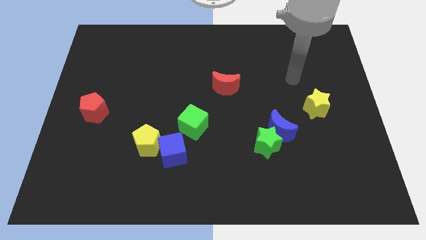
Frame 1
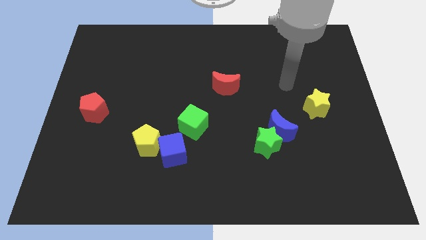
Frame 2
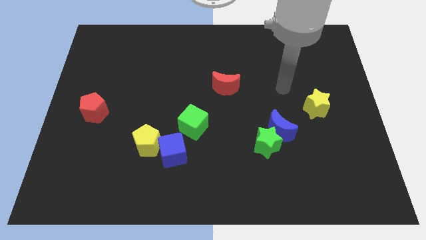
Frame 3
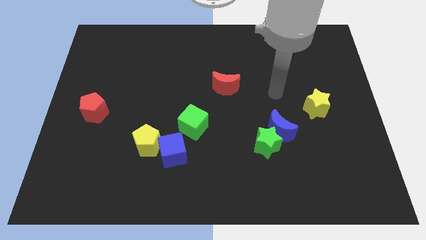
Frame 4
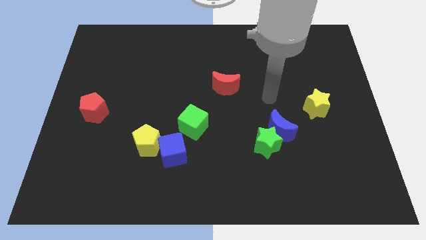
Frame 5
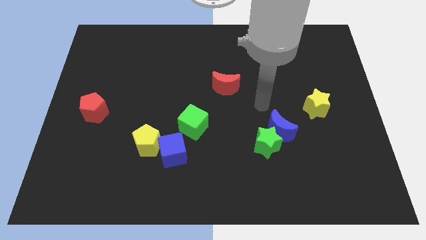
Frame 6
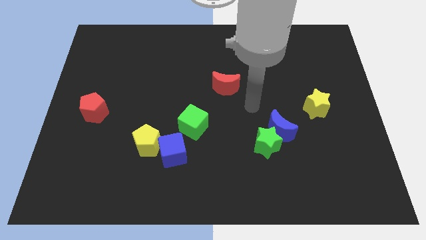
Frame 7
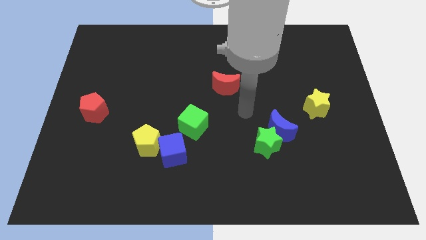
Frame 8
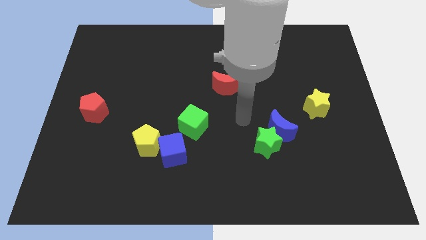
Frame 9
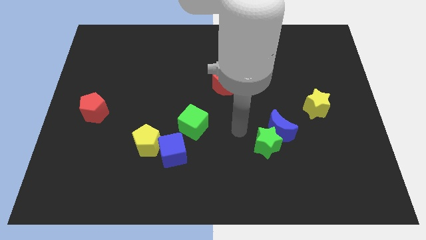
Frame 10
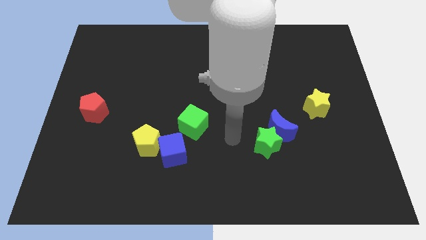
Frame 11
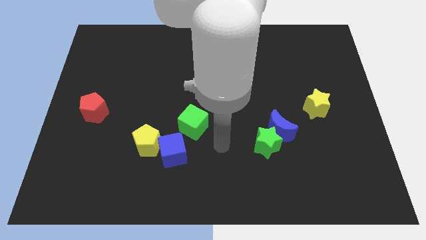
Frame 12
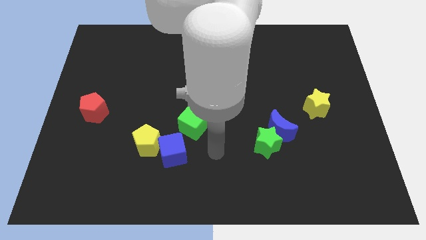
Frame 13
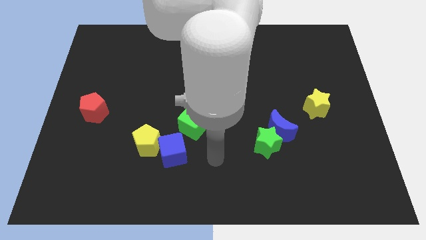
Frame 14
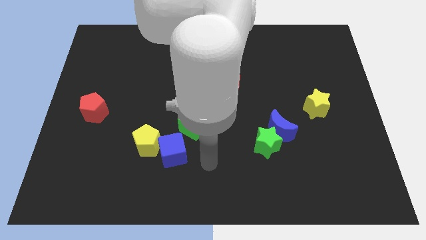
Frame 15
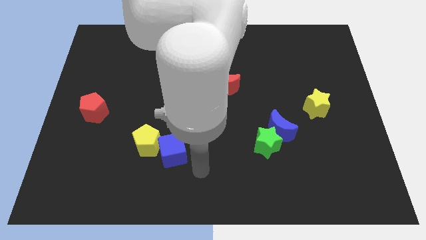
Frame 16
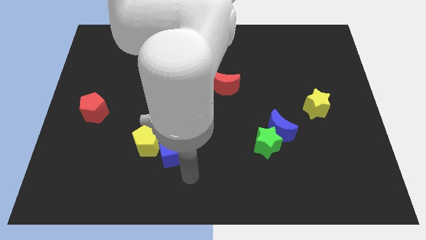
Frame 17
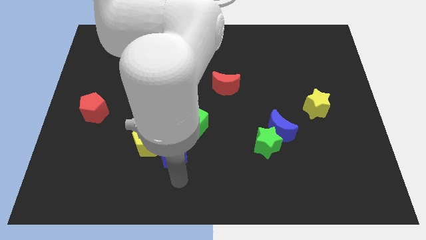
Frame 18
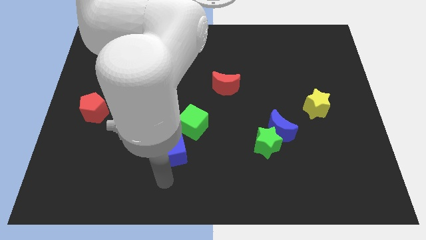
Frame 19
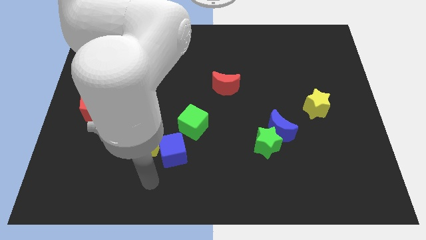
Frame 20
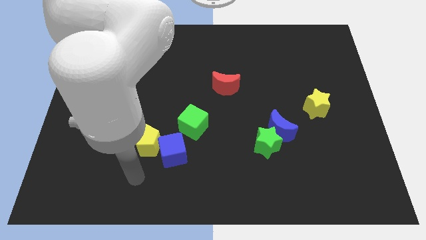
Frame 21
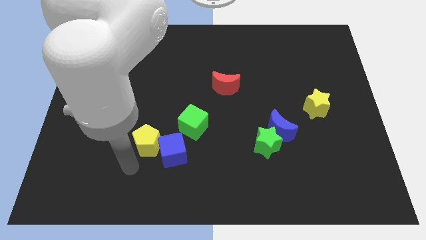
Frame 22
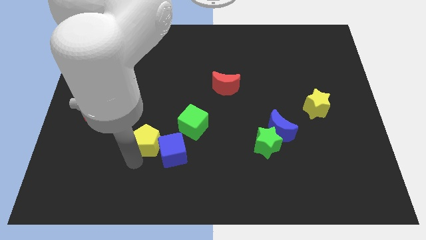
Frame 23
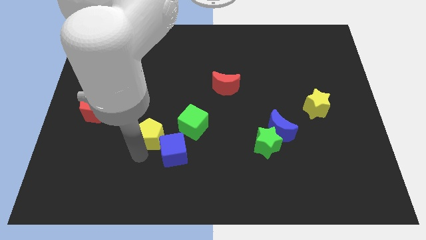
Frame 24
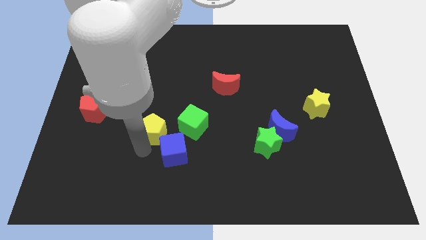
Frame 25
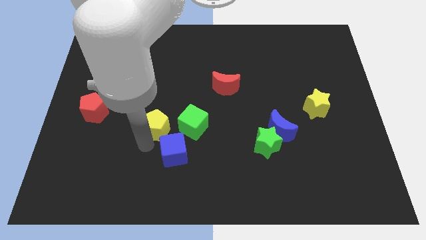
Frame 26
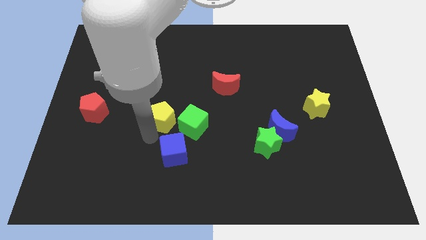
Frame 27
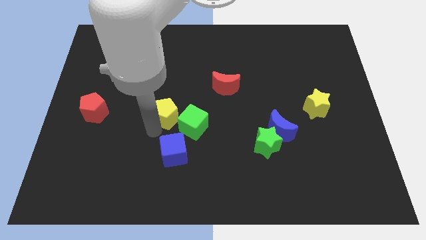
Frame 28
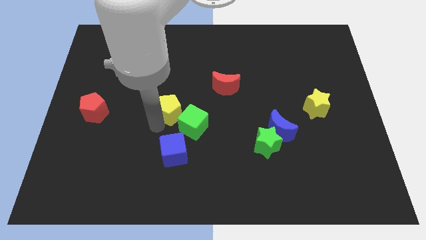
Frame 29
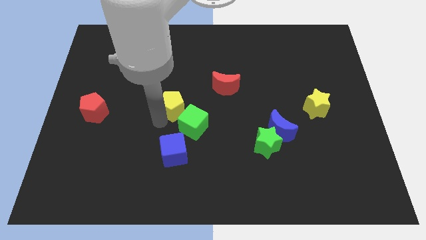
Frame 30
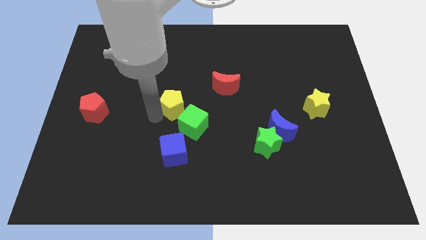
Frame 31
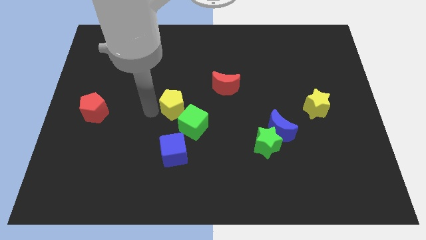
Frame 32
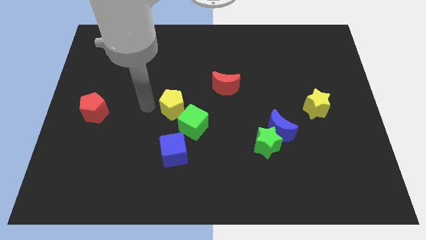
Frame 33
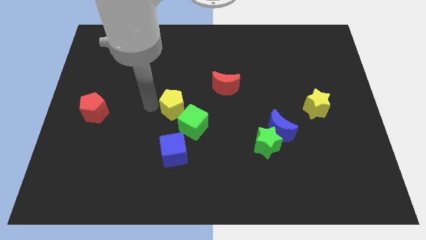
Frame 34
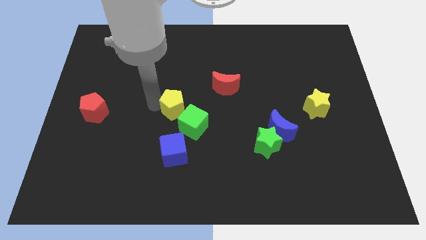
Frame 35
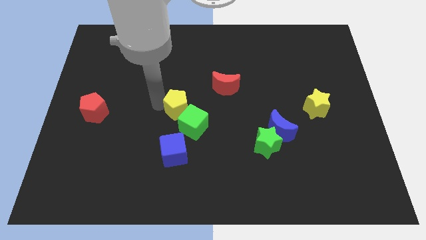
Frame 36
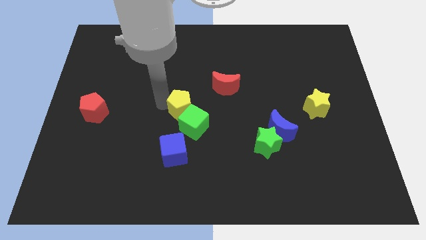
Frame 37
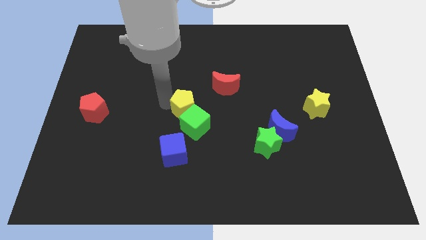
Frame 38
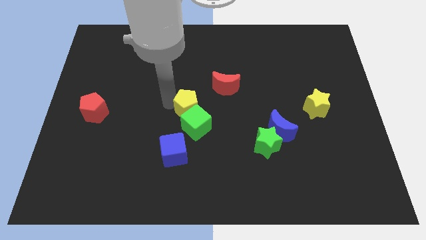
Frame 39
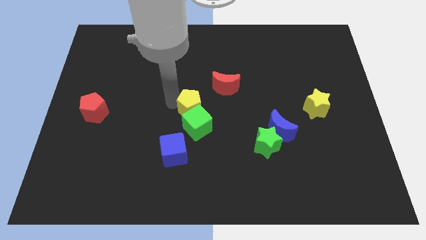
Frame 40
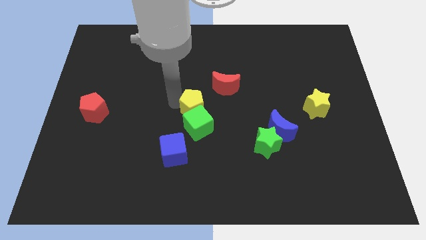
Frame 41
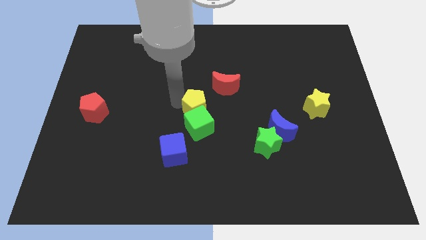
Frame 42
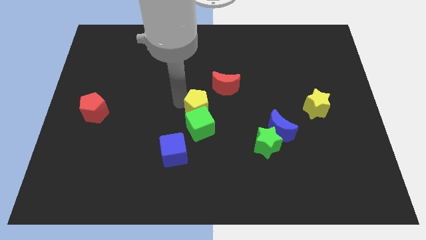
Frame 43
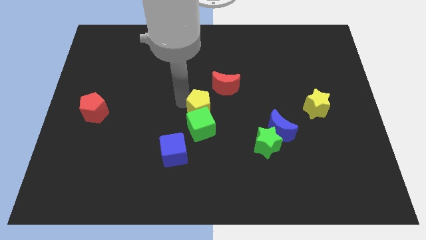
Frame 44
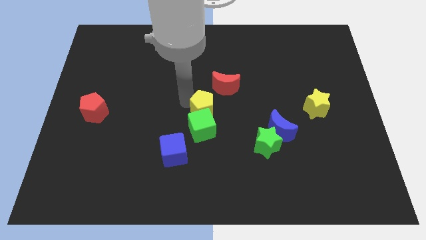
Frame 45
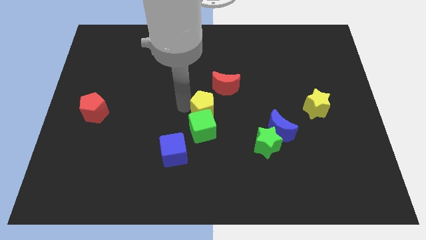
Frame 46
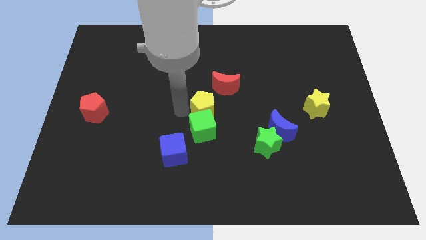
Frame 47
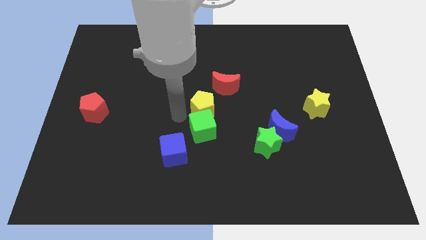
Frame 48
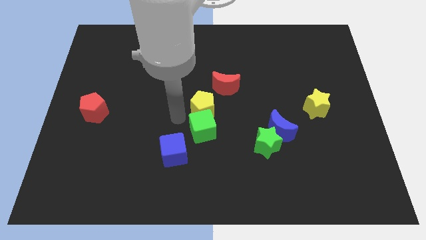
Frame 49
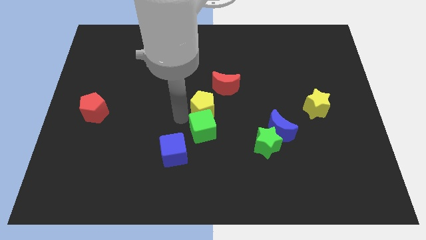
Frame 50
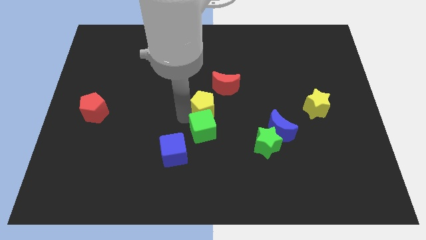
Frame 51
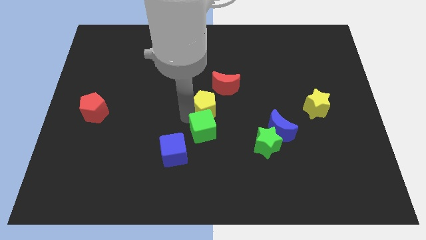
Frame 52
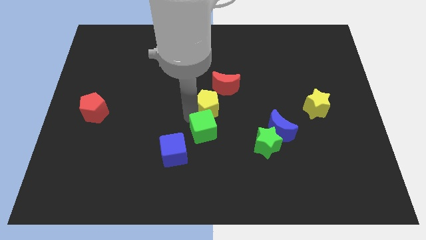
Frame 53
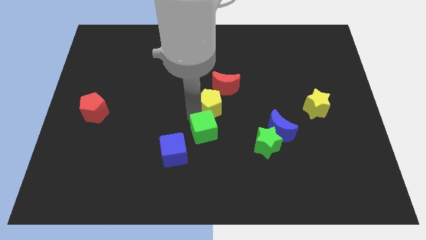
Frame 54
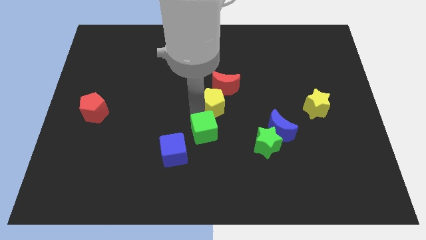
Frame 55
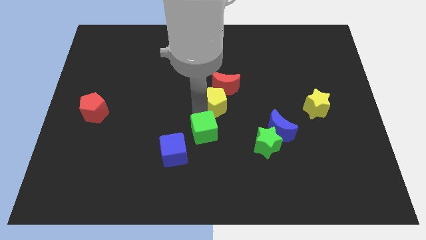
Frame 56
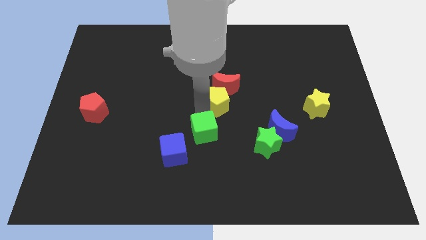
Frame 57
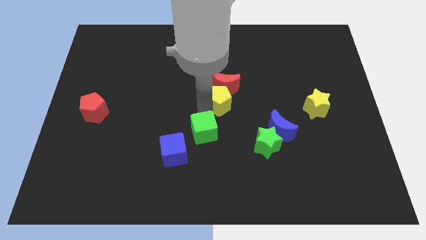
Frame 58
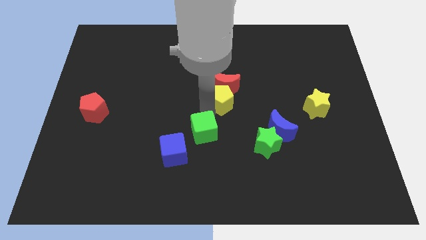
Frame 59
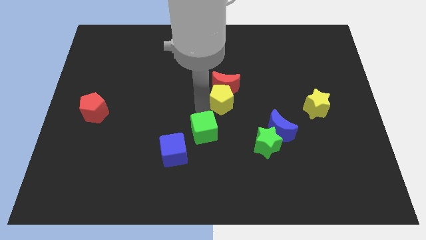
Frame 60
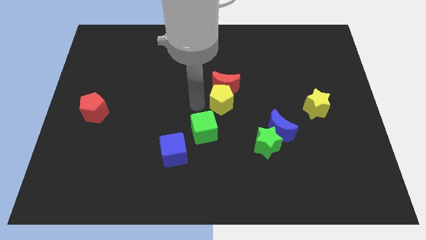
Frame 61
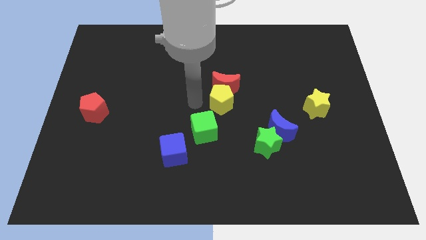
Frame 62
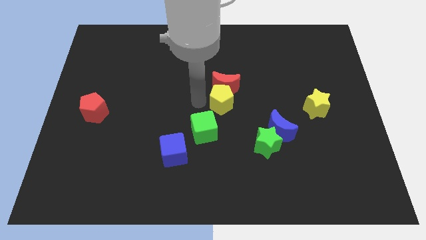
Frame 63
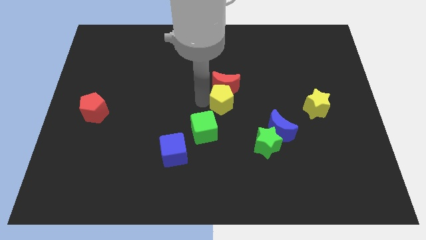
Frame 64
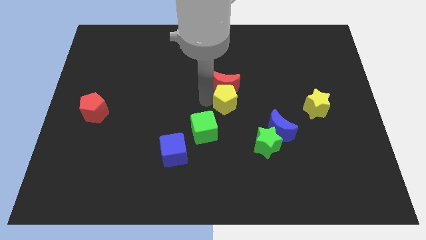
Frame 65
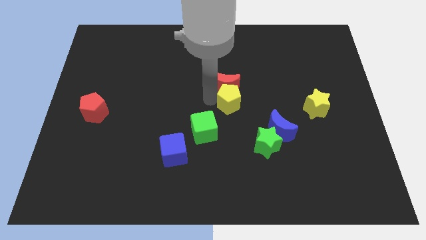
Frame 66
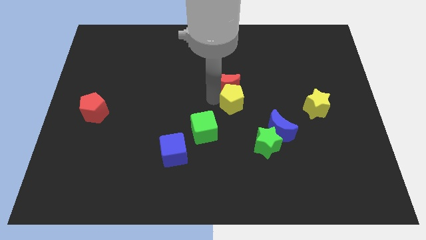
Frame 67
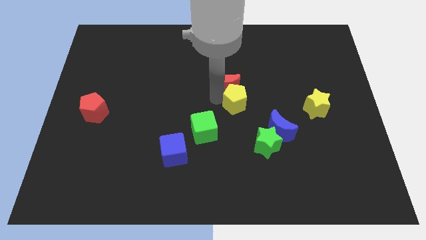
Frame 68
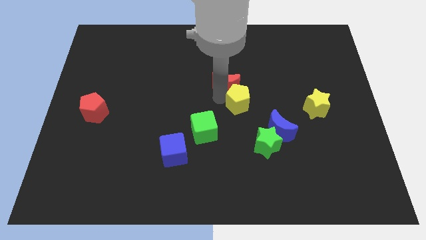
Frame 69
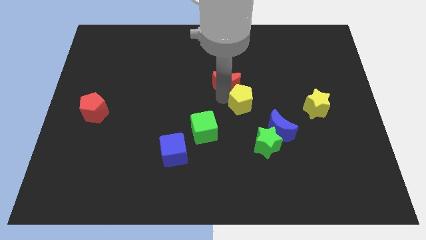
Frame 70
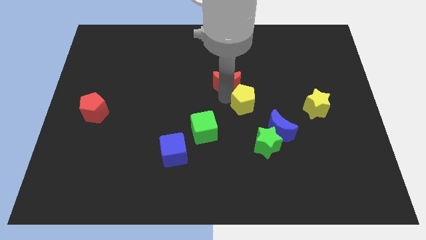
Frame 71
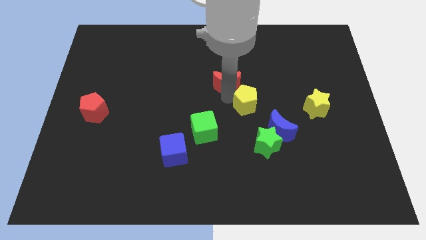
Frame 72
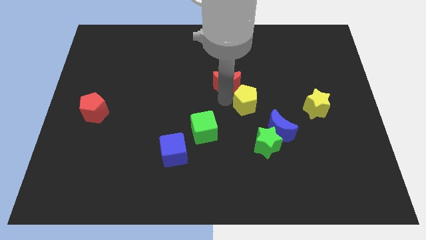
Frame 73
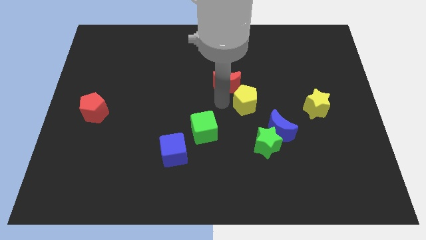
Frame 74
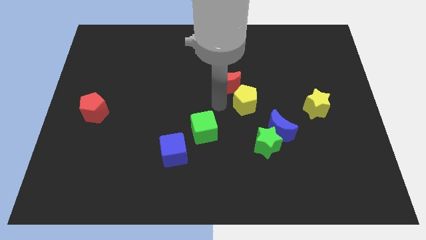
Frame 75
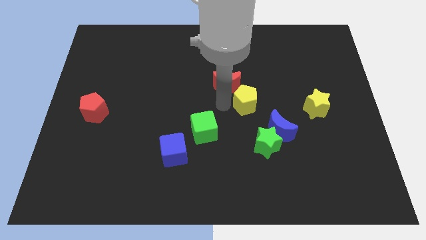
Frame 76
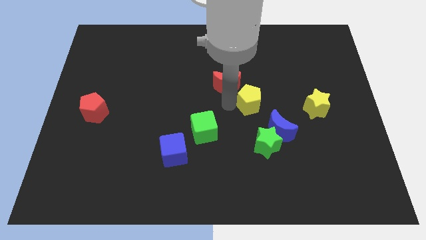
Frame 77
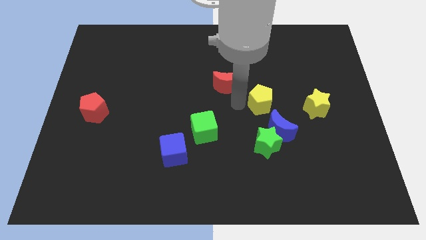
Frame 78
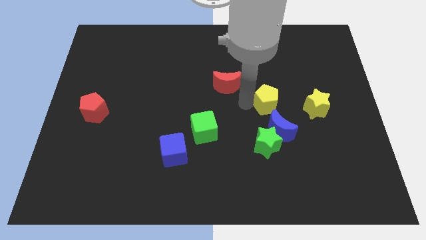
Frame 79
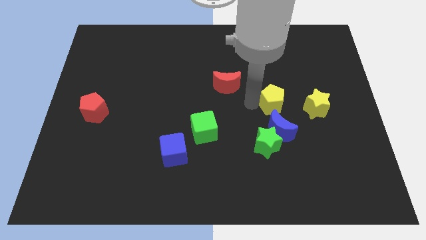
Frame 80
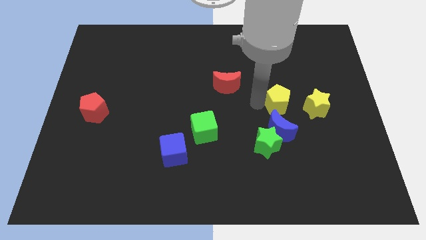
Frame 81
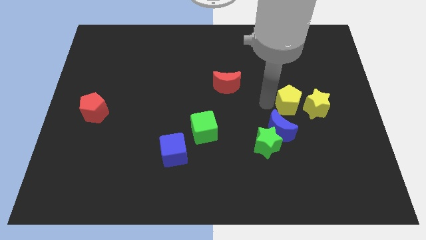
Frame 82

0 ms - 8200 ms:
slide the yellow pentagon next to the yellow star
